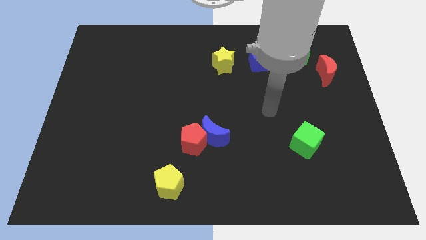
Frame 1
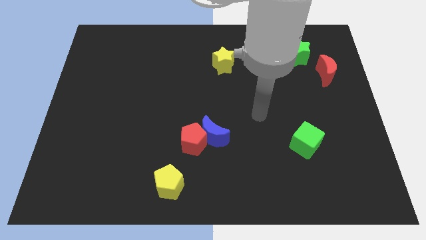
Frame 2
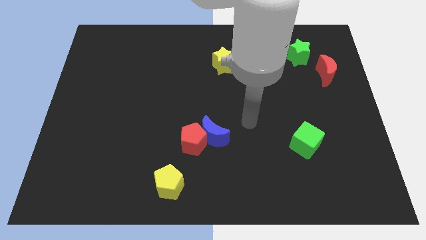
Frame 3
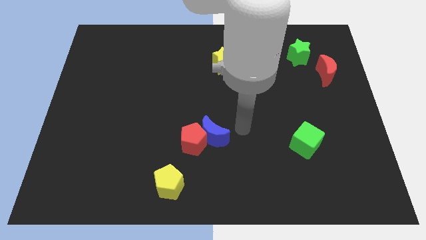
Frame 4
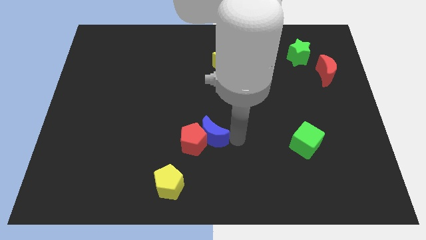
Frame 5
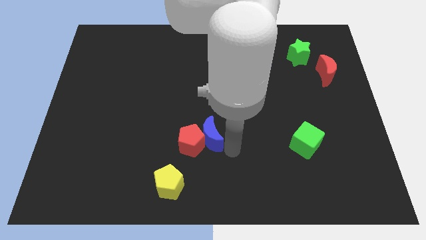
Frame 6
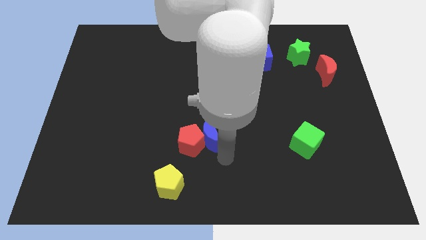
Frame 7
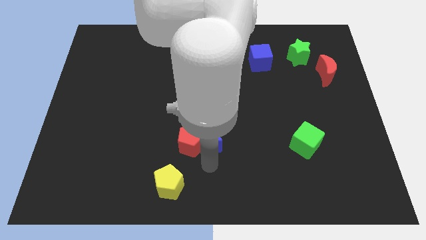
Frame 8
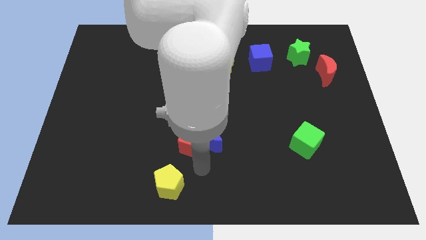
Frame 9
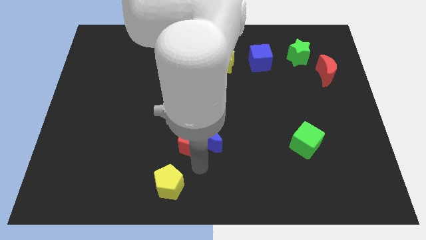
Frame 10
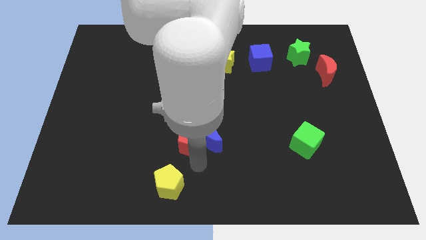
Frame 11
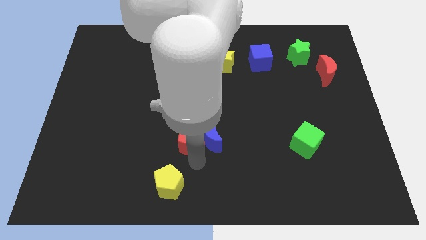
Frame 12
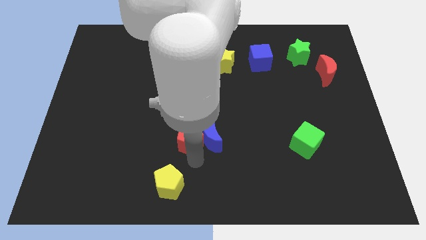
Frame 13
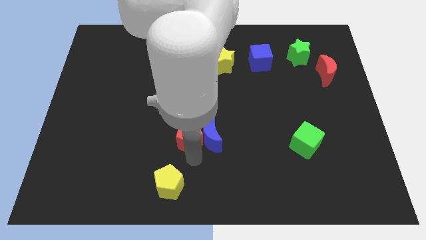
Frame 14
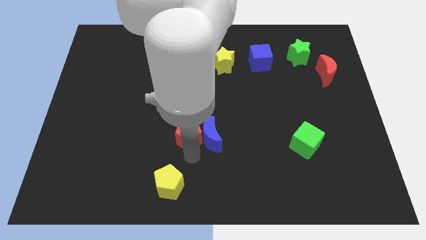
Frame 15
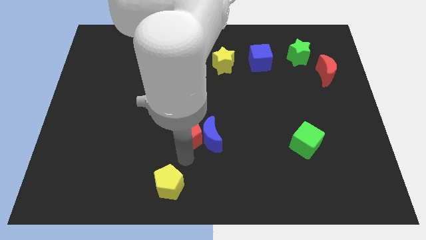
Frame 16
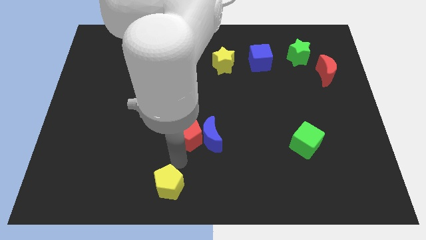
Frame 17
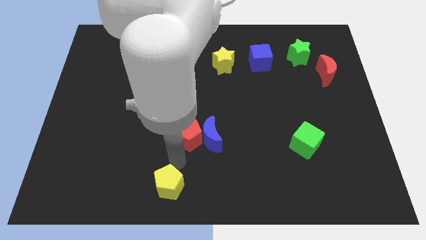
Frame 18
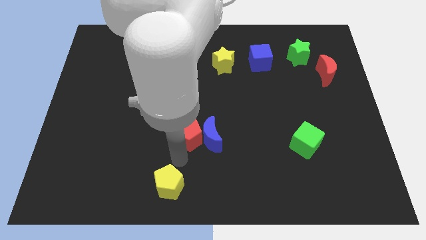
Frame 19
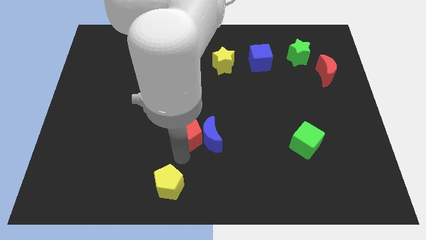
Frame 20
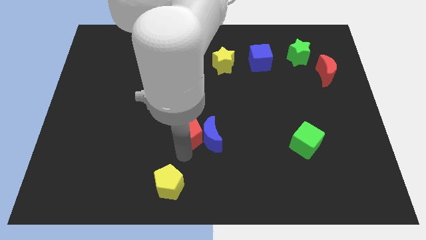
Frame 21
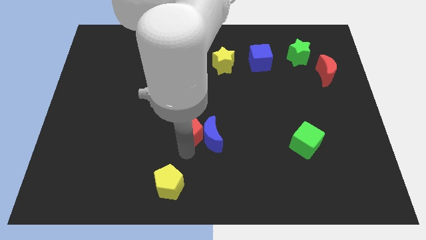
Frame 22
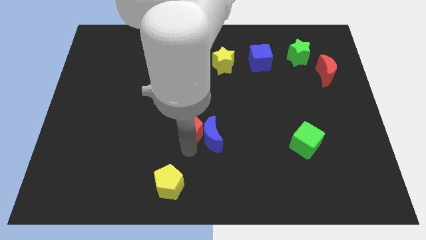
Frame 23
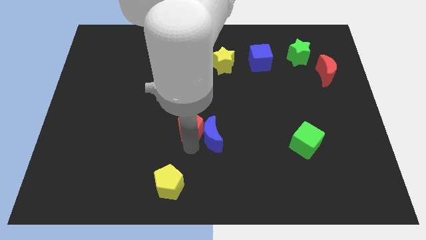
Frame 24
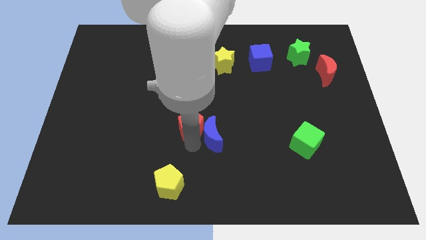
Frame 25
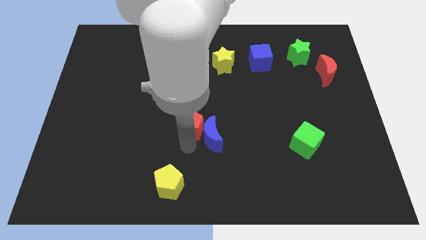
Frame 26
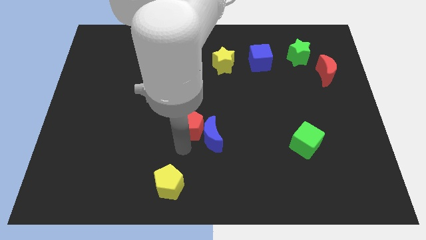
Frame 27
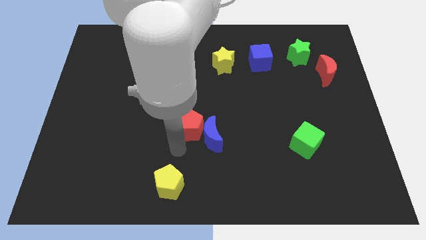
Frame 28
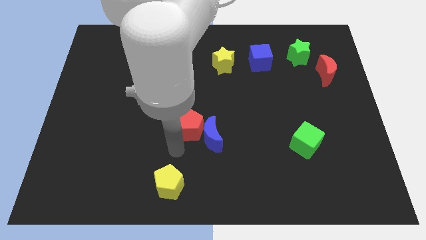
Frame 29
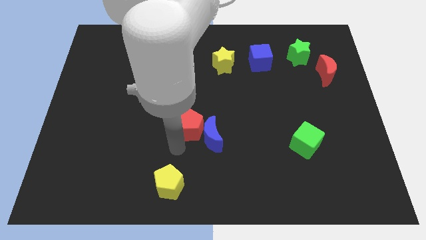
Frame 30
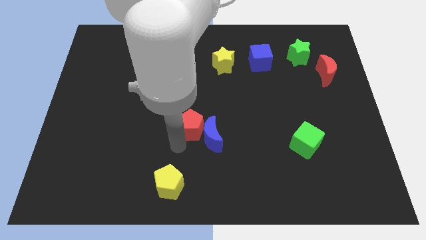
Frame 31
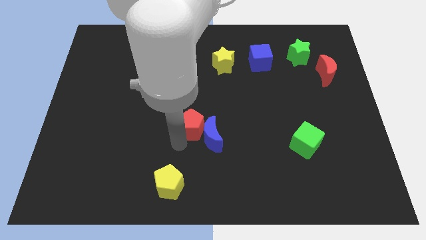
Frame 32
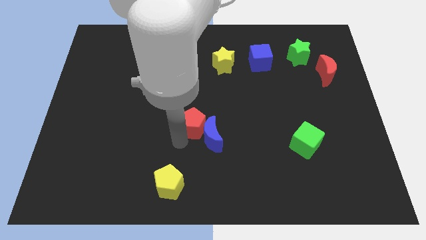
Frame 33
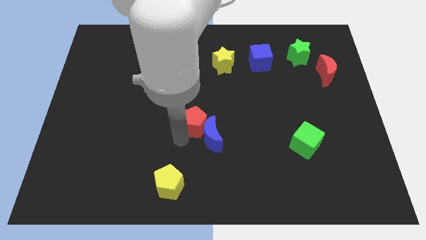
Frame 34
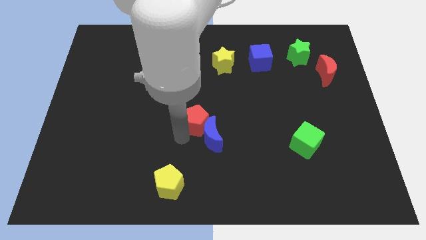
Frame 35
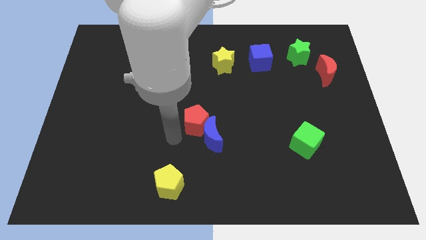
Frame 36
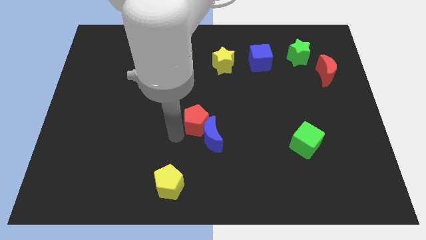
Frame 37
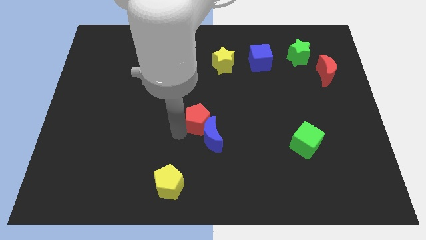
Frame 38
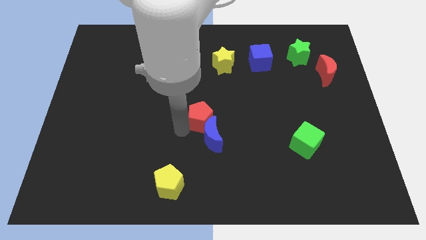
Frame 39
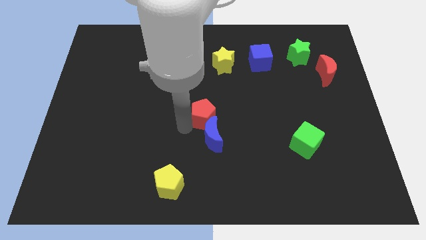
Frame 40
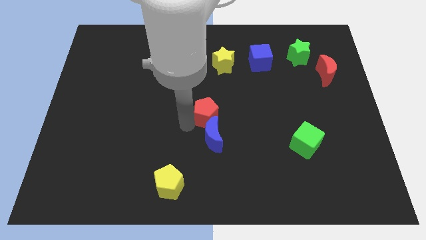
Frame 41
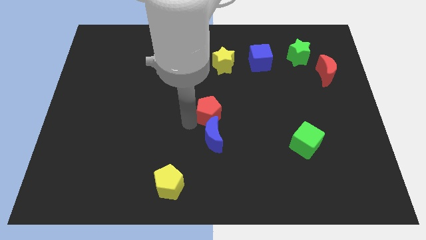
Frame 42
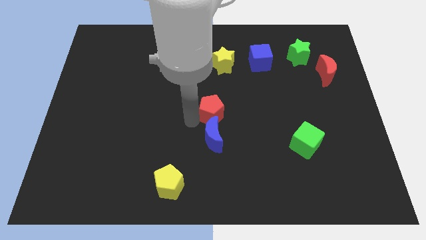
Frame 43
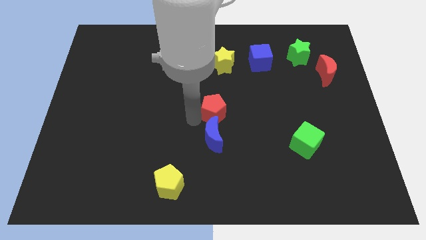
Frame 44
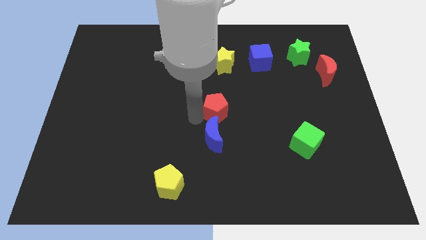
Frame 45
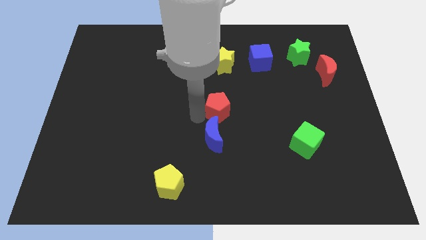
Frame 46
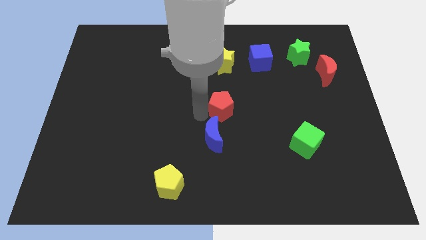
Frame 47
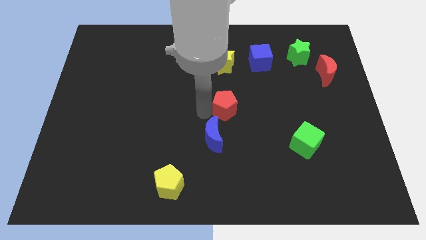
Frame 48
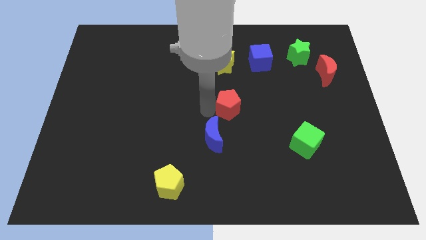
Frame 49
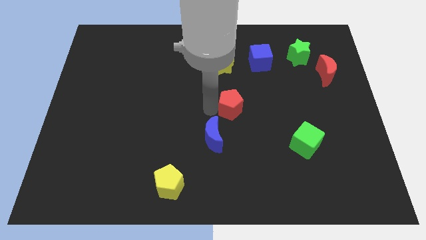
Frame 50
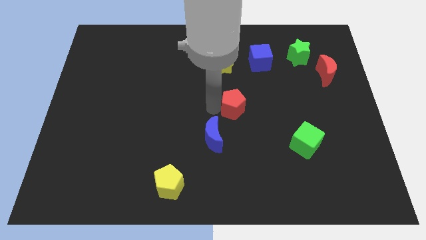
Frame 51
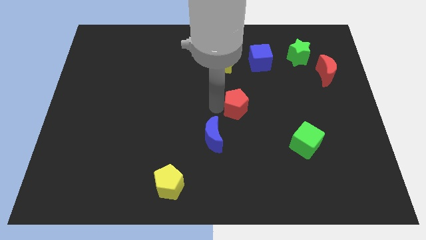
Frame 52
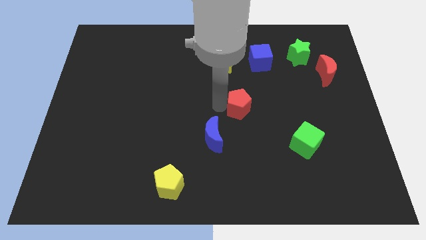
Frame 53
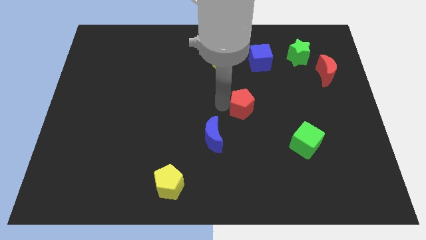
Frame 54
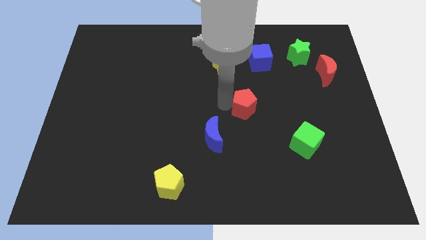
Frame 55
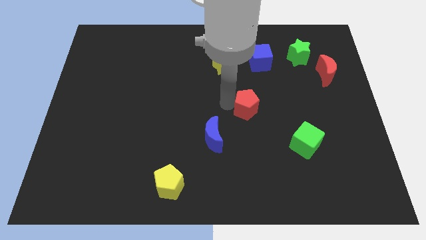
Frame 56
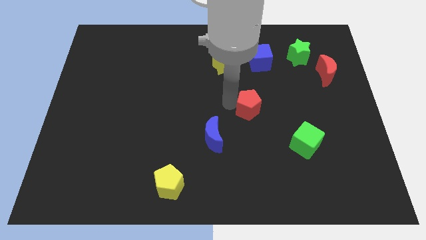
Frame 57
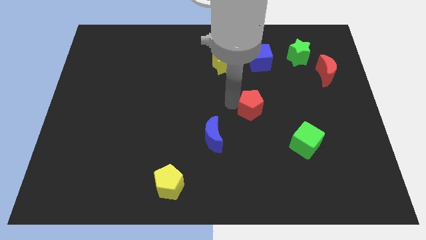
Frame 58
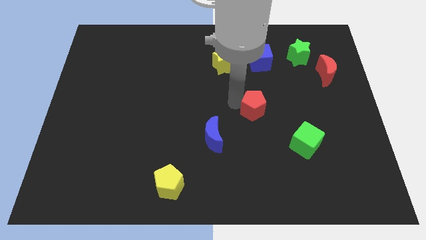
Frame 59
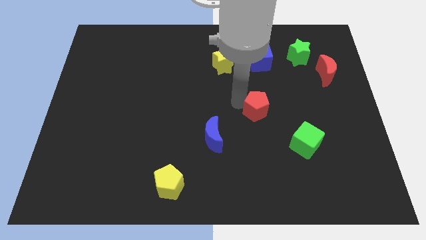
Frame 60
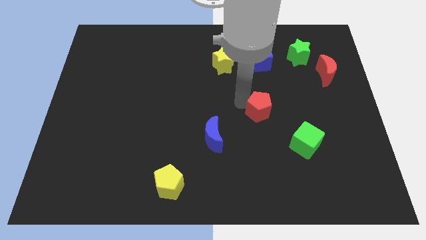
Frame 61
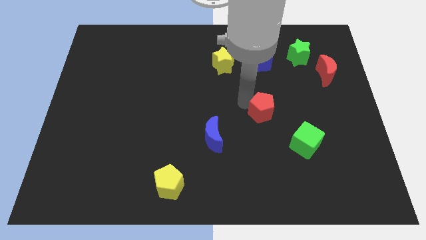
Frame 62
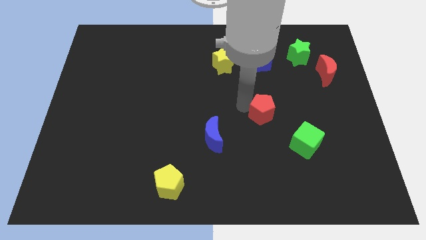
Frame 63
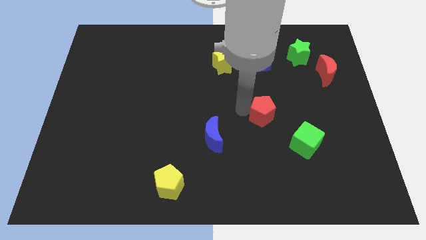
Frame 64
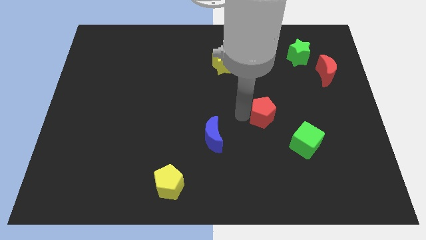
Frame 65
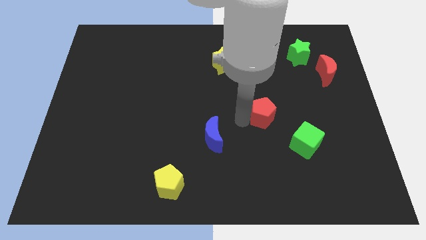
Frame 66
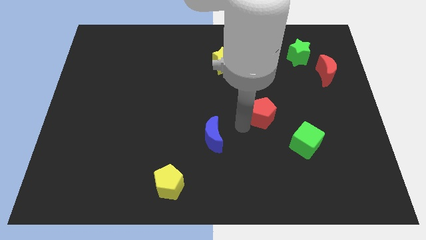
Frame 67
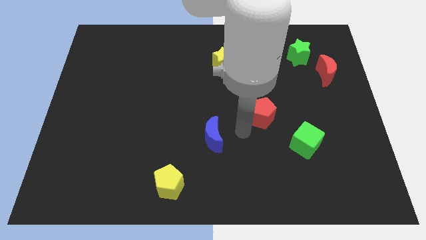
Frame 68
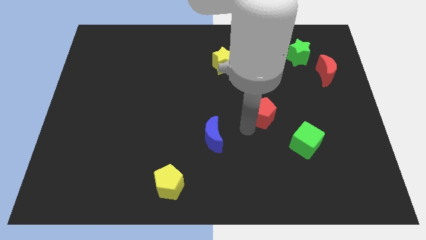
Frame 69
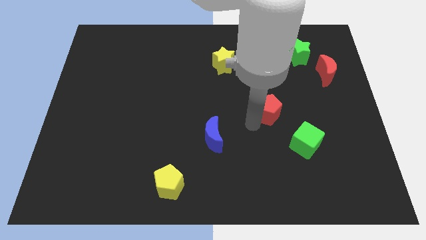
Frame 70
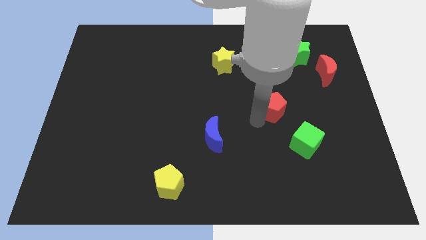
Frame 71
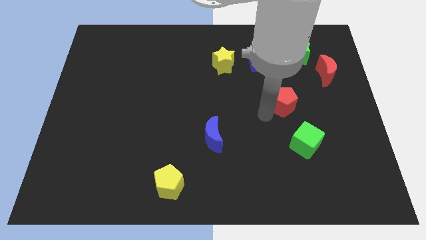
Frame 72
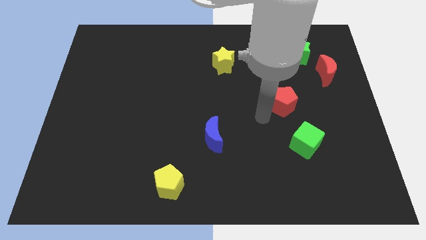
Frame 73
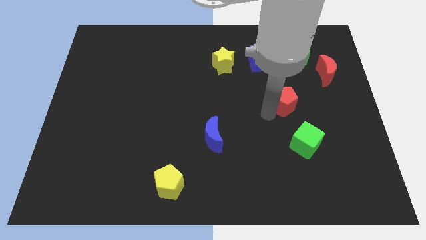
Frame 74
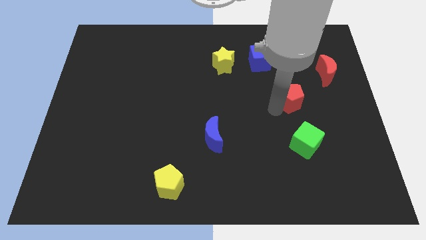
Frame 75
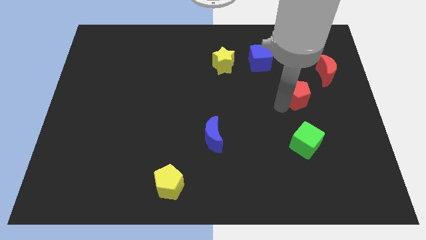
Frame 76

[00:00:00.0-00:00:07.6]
move the red pentagon to the bottom left of the red moon

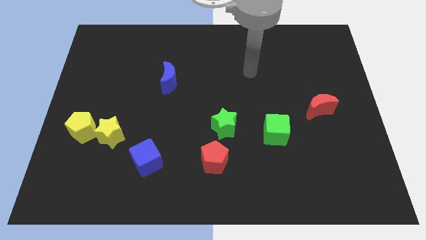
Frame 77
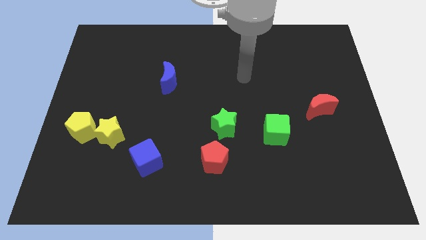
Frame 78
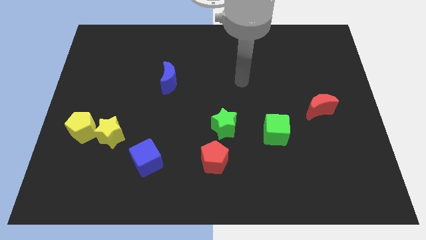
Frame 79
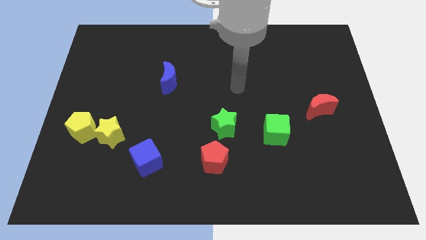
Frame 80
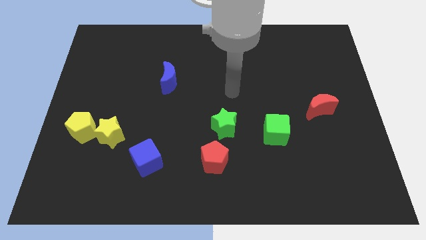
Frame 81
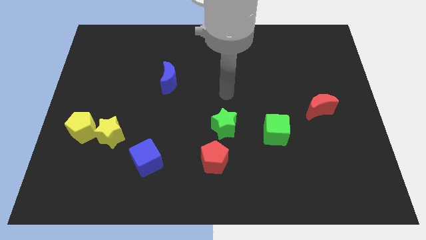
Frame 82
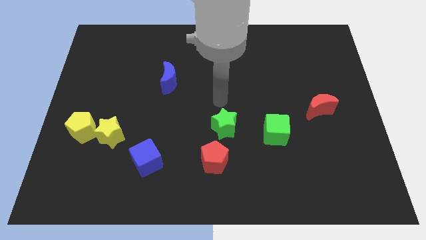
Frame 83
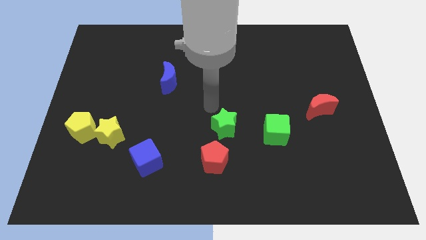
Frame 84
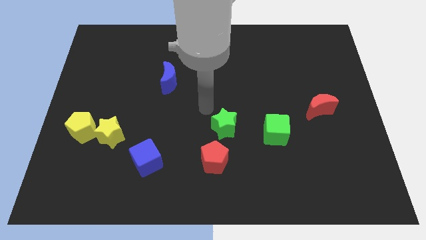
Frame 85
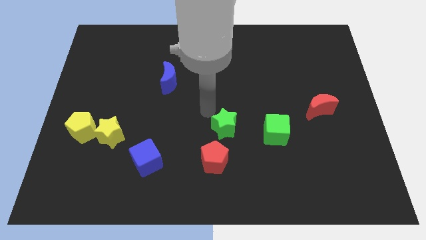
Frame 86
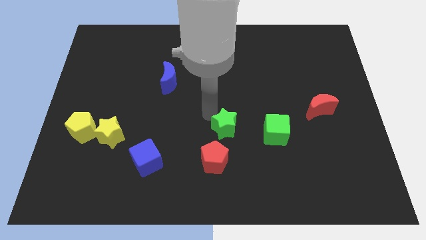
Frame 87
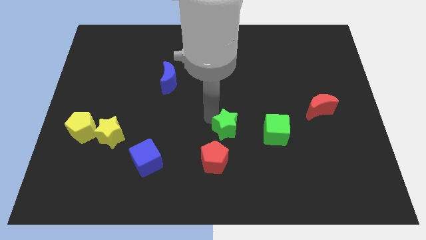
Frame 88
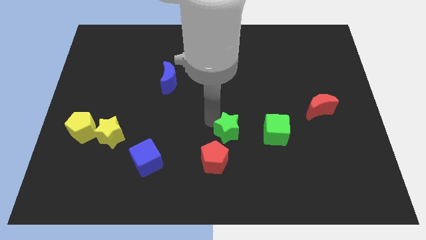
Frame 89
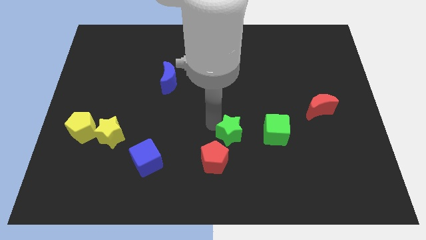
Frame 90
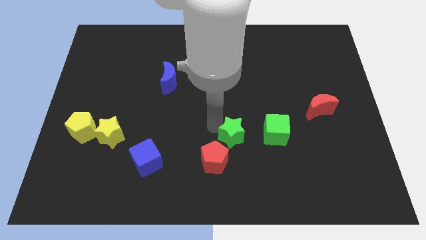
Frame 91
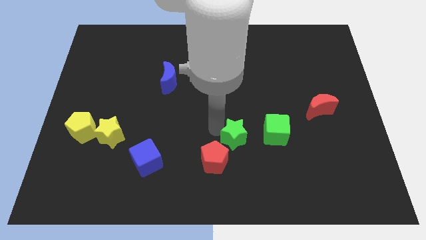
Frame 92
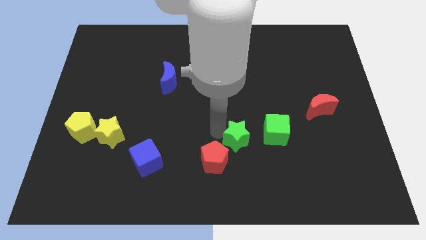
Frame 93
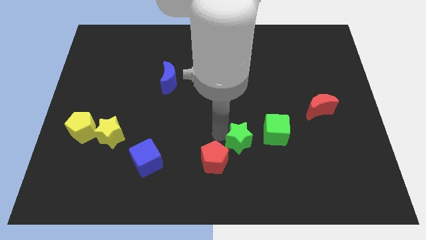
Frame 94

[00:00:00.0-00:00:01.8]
put the green star to the bottom left of the green cube
